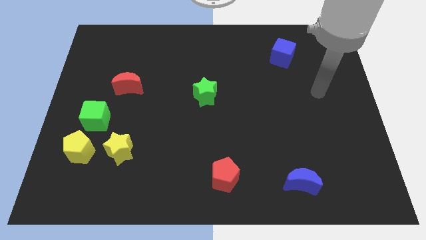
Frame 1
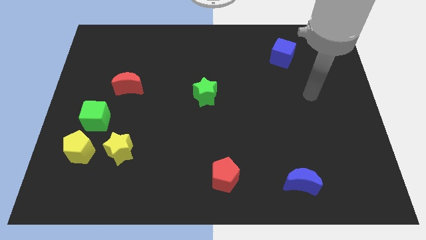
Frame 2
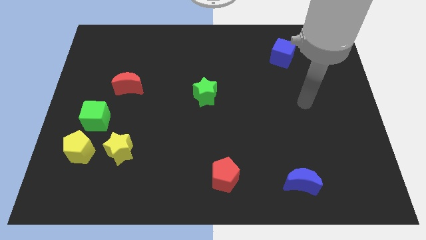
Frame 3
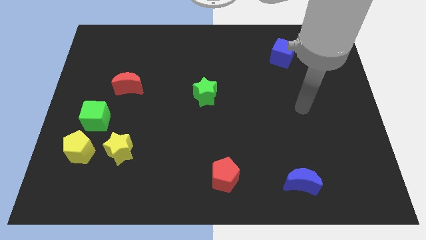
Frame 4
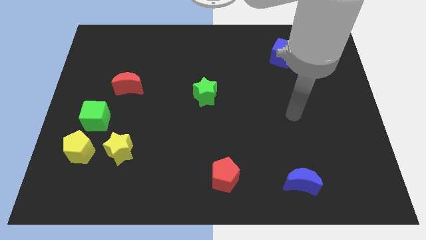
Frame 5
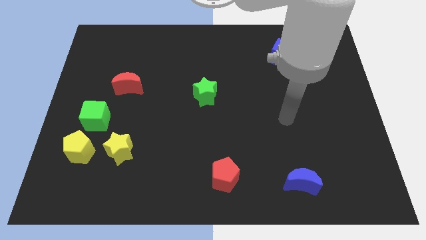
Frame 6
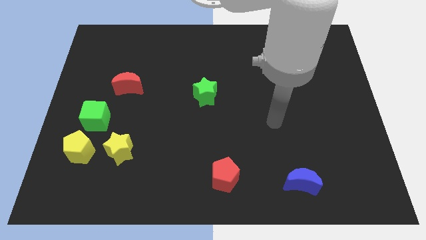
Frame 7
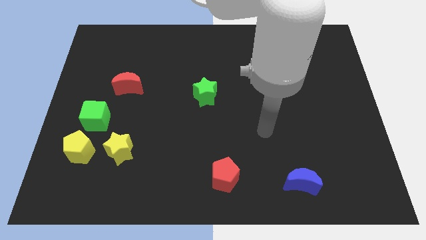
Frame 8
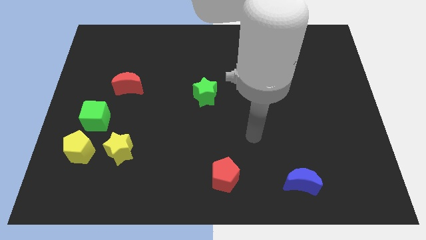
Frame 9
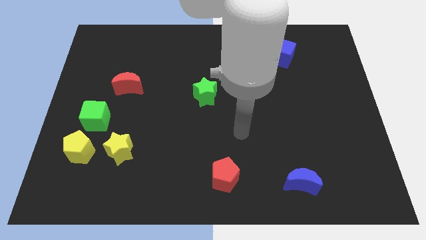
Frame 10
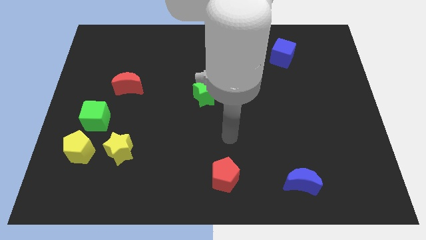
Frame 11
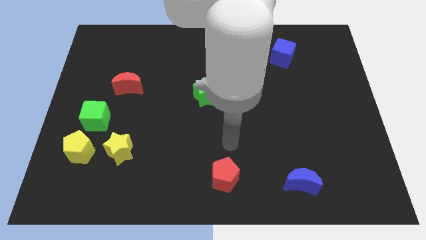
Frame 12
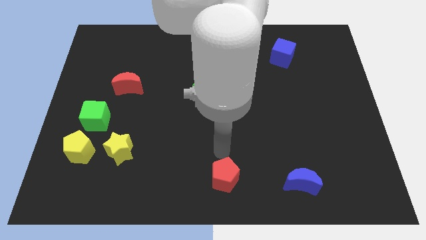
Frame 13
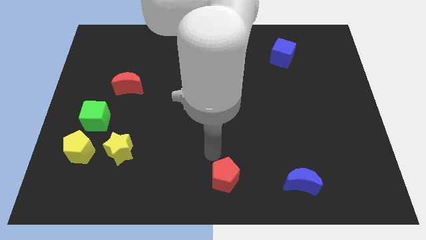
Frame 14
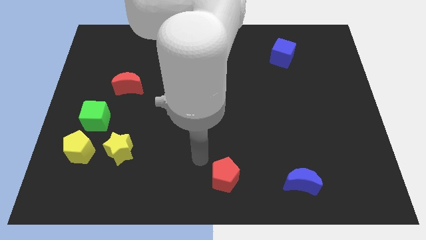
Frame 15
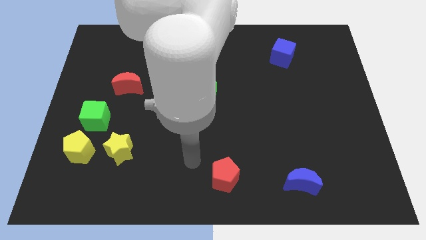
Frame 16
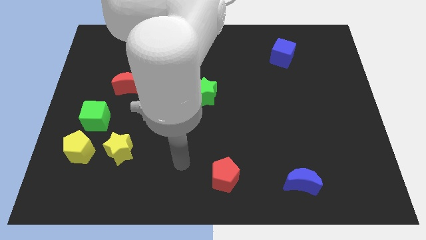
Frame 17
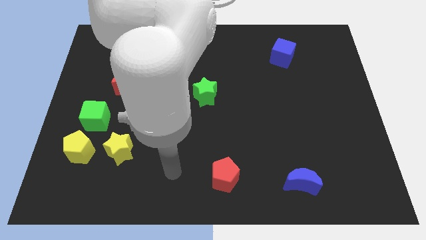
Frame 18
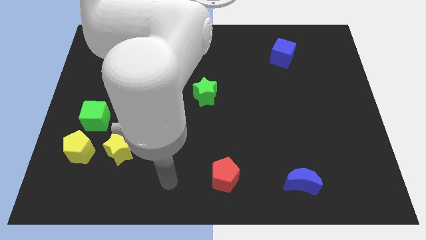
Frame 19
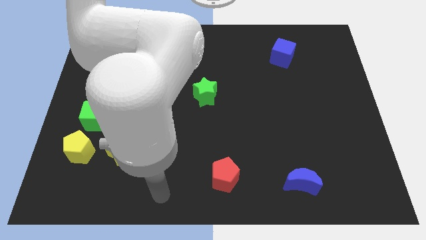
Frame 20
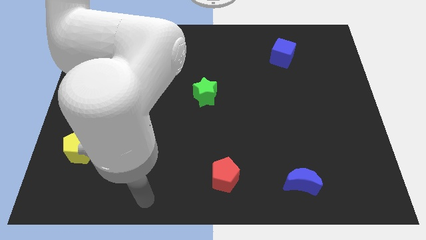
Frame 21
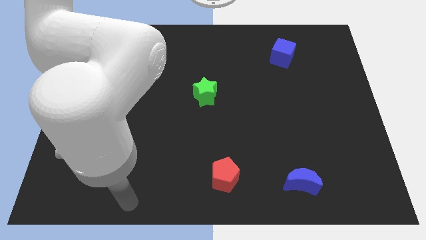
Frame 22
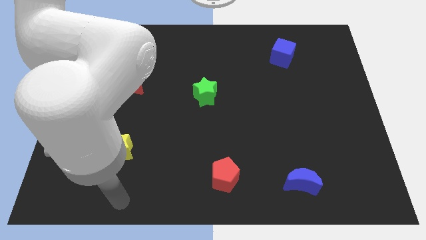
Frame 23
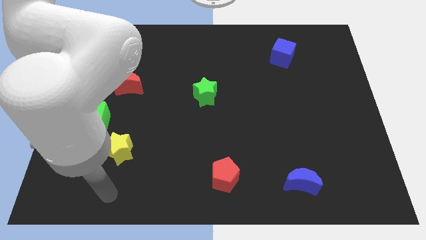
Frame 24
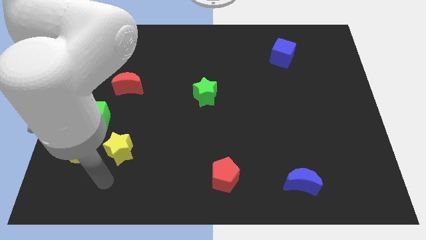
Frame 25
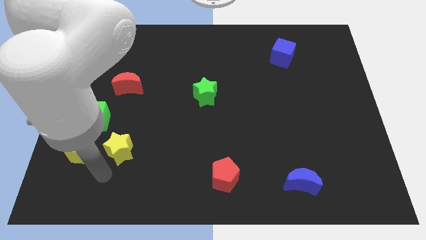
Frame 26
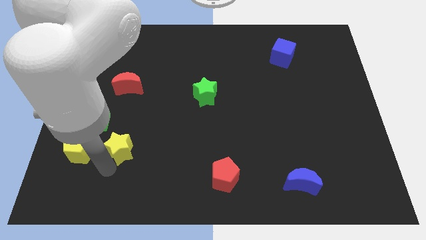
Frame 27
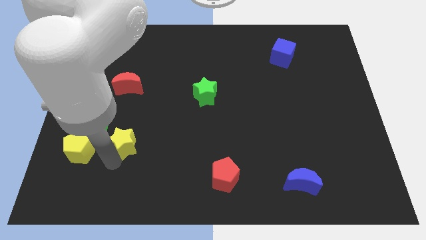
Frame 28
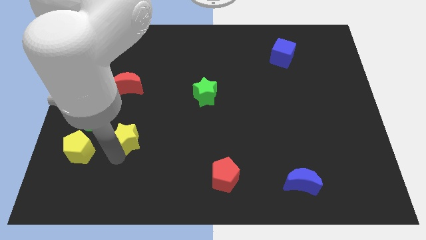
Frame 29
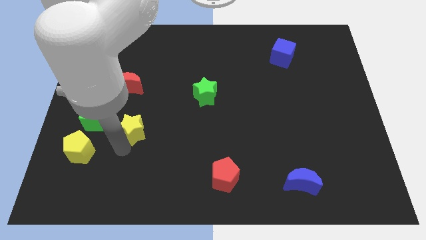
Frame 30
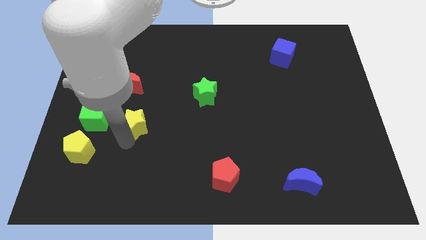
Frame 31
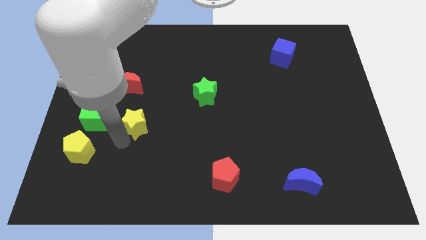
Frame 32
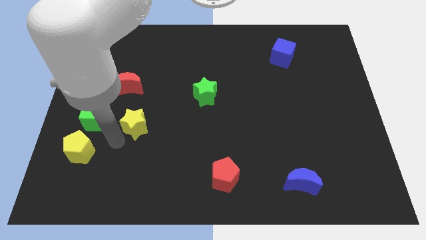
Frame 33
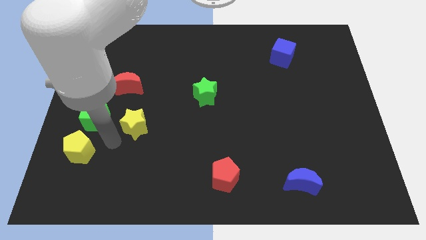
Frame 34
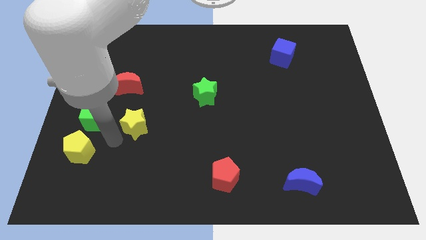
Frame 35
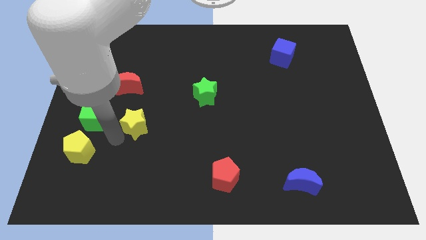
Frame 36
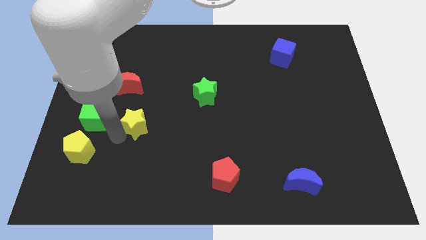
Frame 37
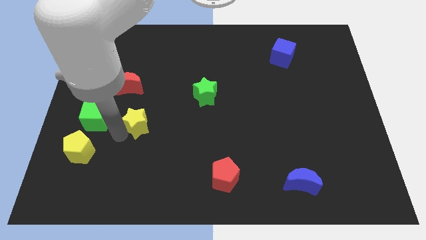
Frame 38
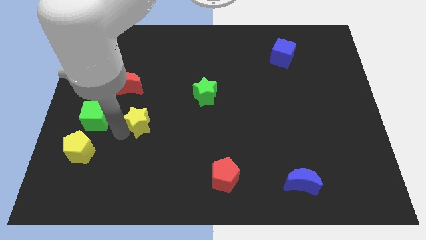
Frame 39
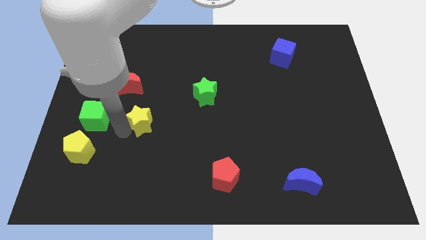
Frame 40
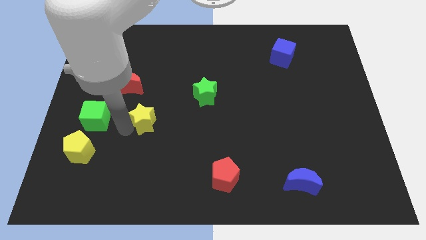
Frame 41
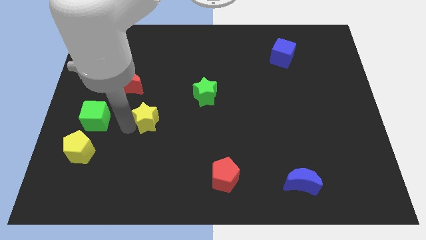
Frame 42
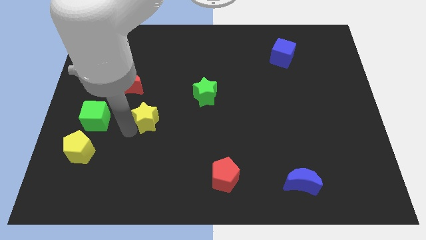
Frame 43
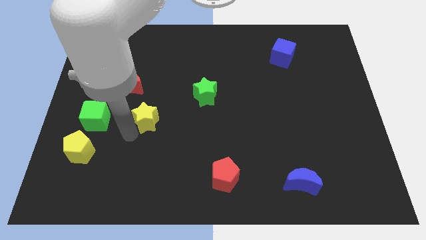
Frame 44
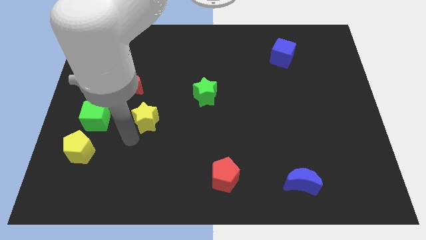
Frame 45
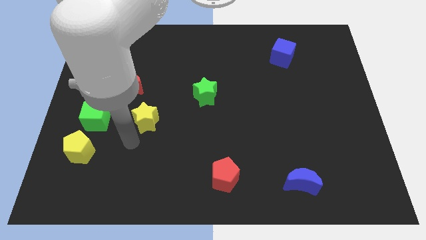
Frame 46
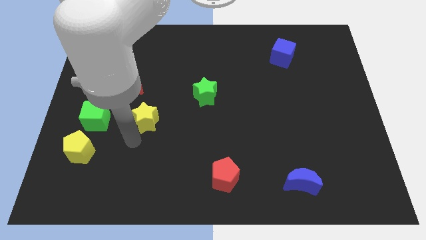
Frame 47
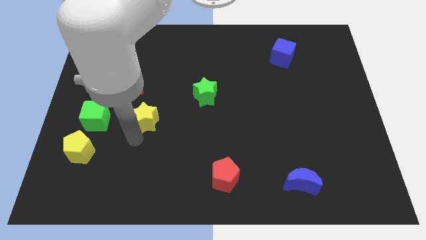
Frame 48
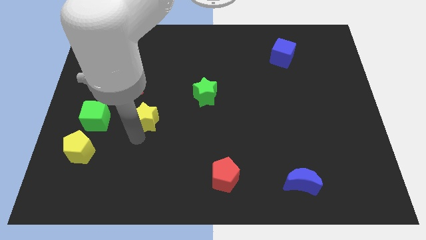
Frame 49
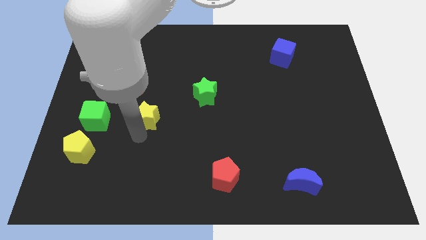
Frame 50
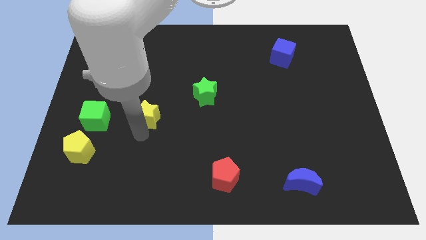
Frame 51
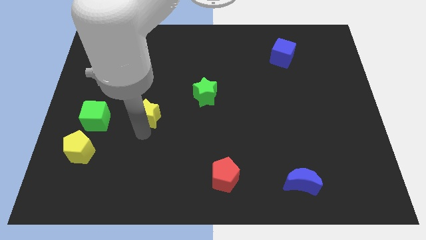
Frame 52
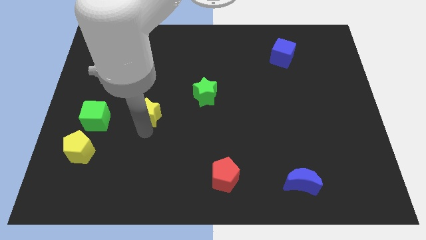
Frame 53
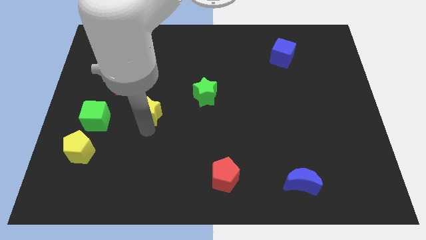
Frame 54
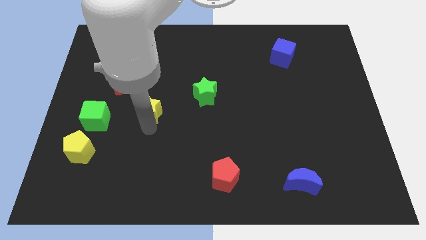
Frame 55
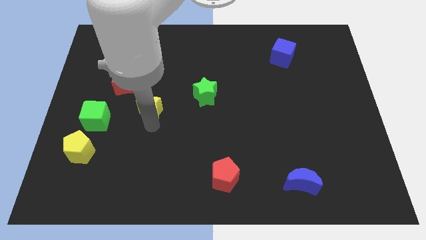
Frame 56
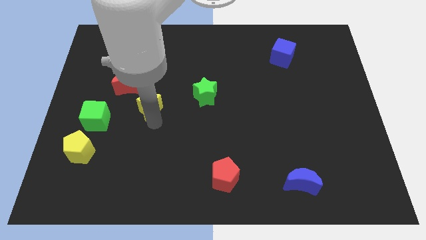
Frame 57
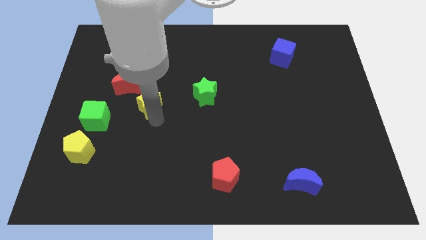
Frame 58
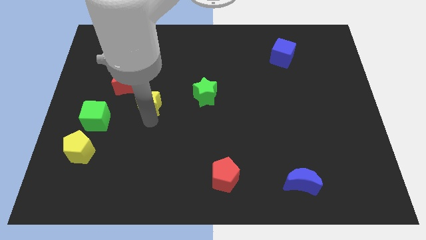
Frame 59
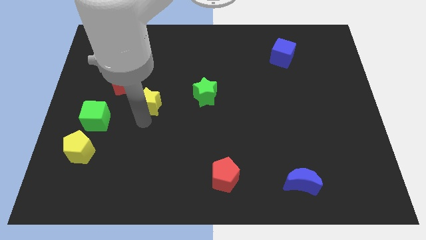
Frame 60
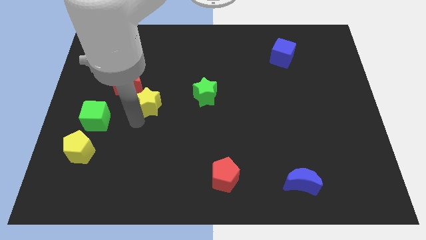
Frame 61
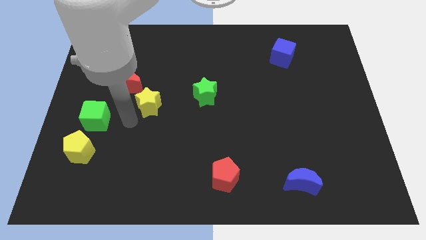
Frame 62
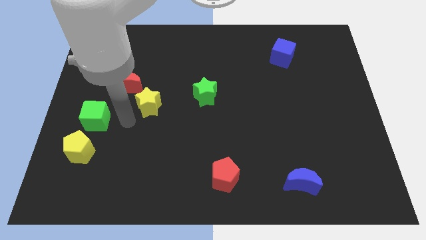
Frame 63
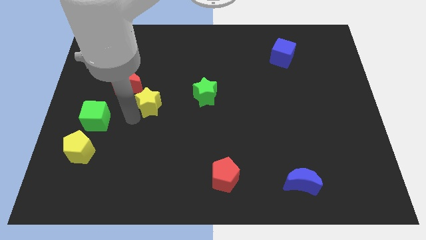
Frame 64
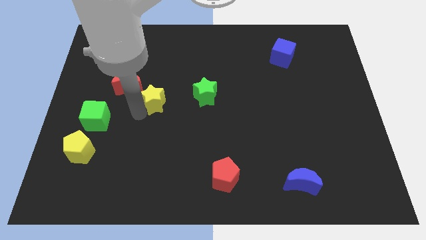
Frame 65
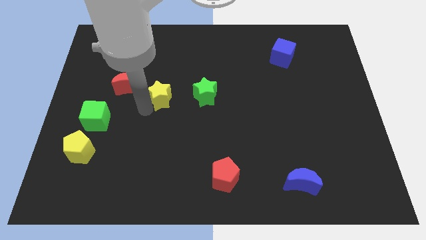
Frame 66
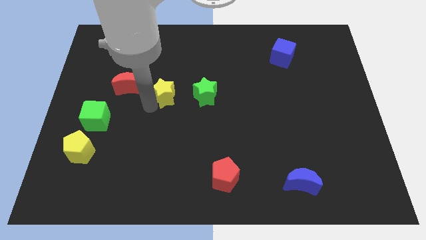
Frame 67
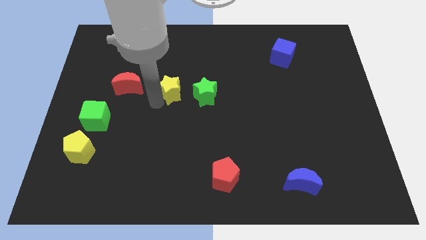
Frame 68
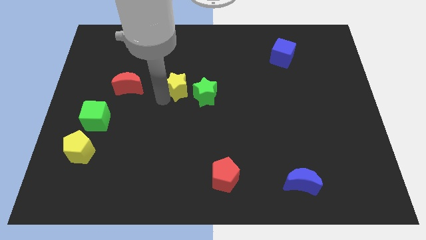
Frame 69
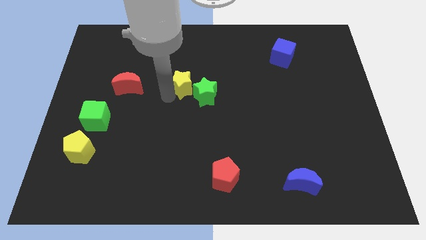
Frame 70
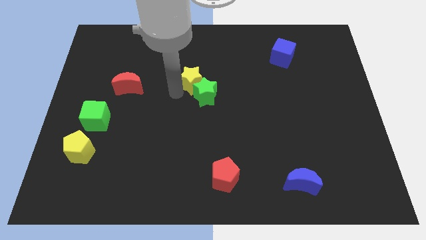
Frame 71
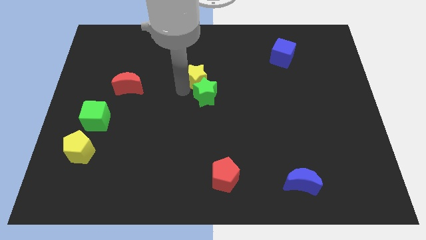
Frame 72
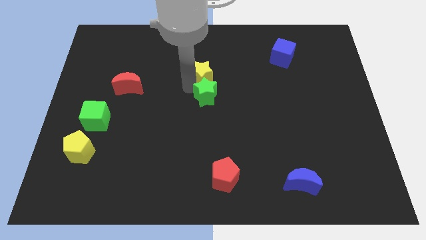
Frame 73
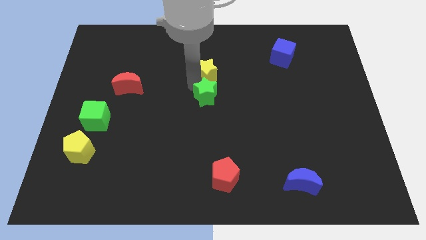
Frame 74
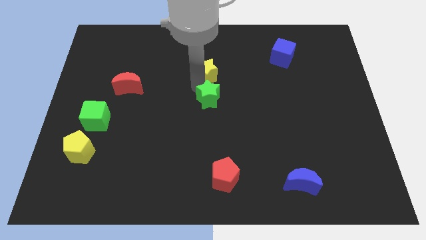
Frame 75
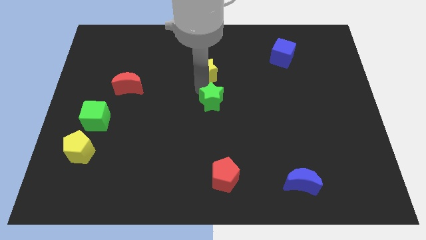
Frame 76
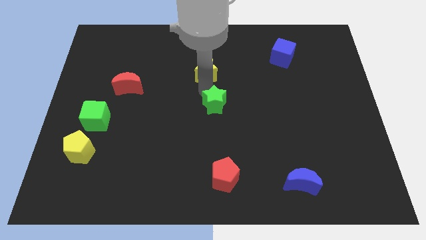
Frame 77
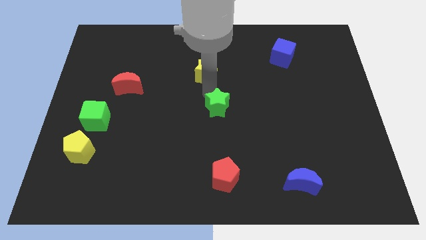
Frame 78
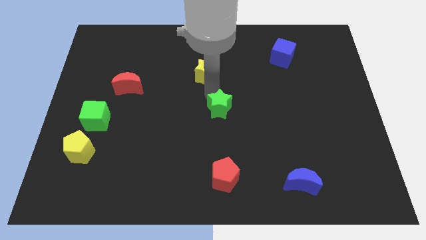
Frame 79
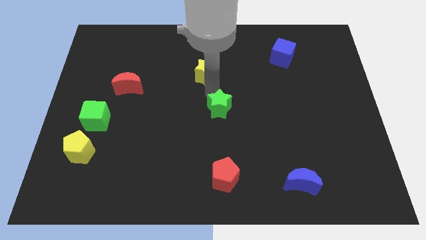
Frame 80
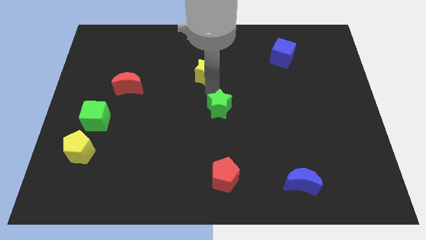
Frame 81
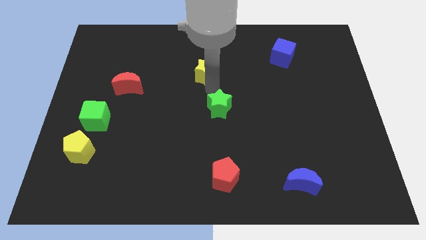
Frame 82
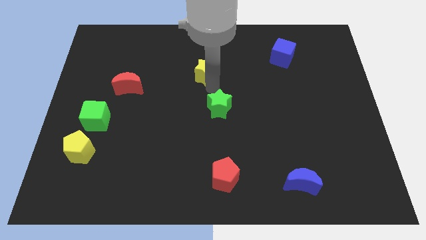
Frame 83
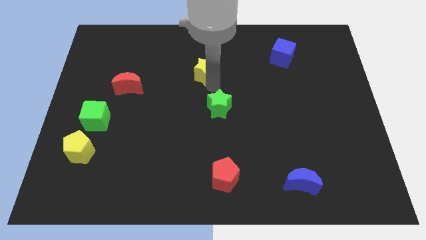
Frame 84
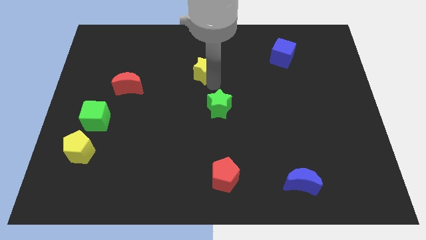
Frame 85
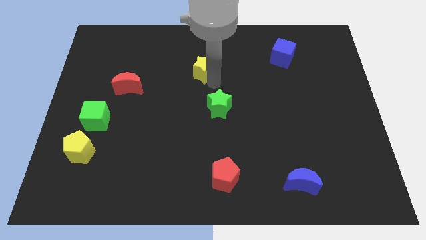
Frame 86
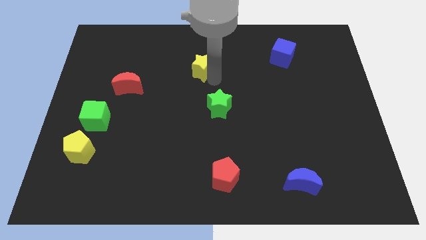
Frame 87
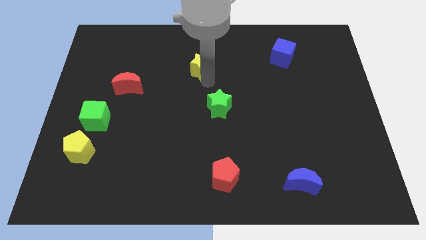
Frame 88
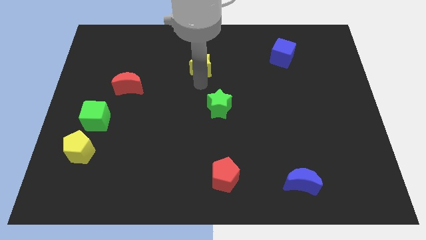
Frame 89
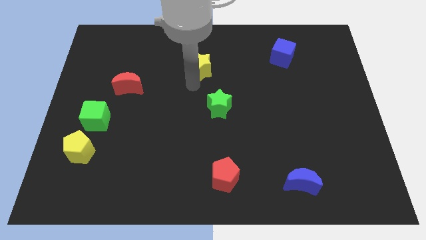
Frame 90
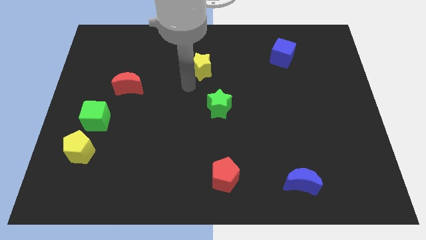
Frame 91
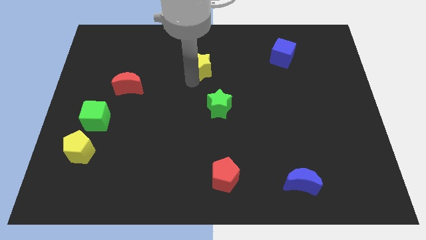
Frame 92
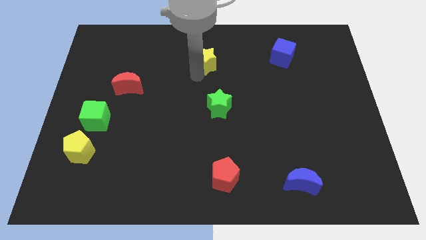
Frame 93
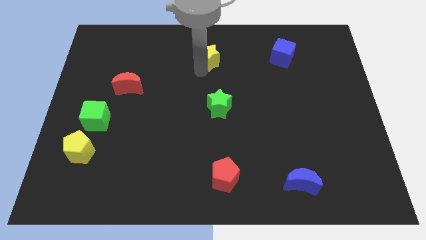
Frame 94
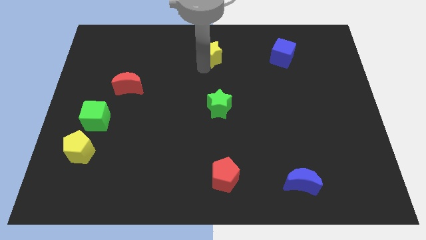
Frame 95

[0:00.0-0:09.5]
slide the yellow star to the top
